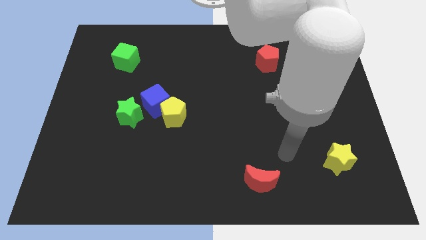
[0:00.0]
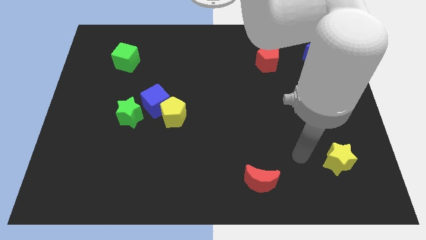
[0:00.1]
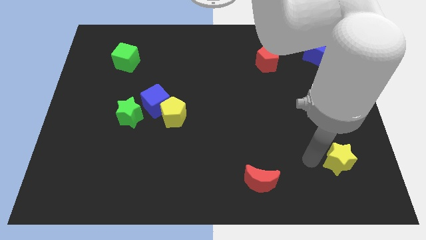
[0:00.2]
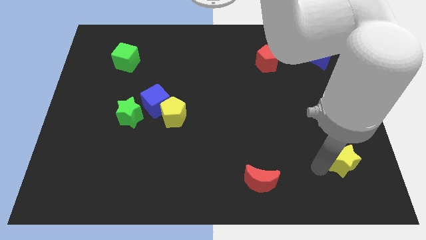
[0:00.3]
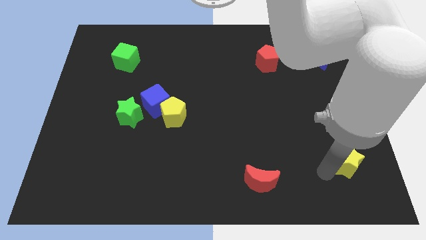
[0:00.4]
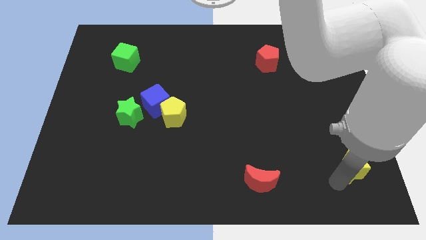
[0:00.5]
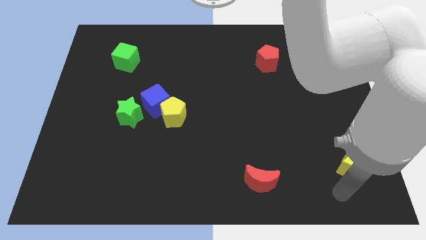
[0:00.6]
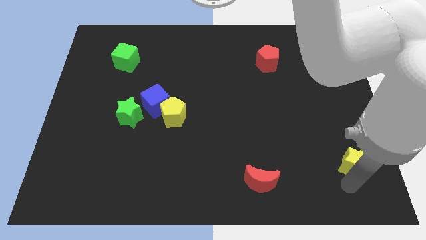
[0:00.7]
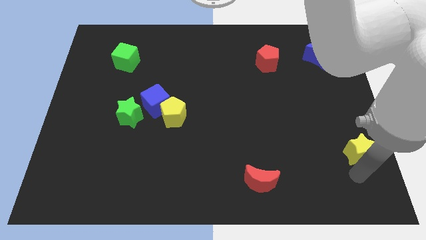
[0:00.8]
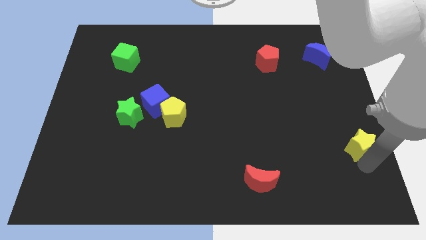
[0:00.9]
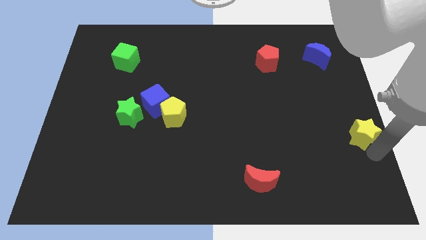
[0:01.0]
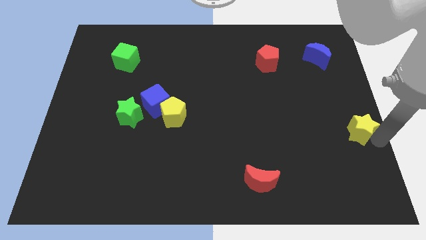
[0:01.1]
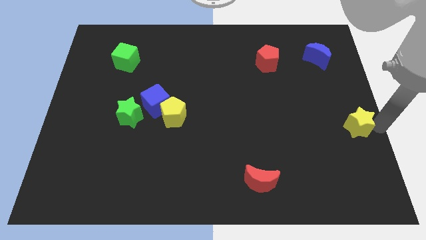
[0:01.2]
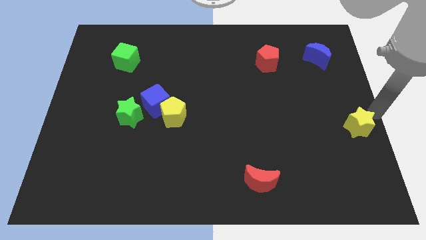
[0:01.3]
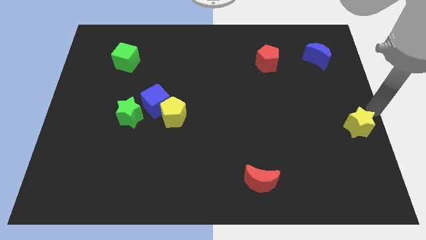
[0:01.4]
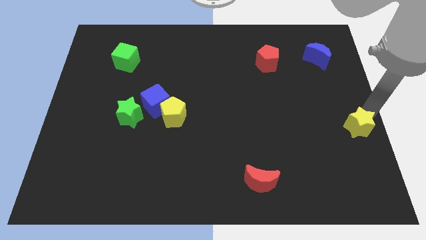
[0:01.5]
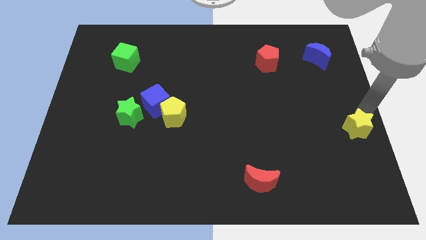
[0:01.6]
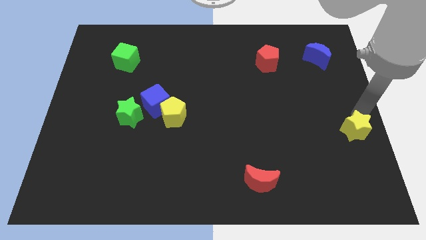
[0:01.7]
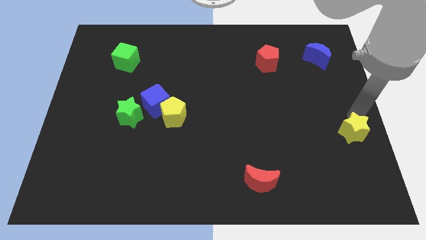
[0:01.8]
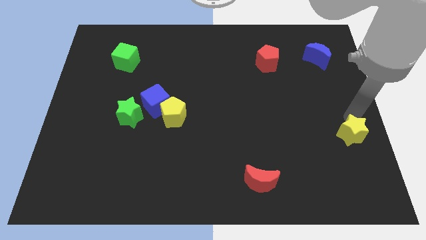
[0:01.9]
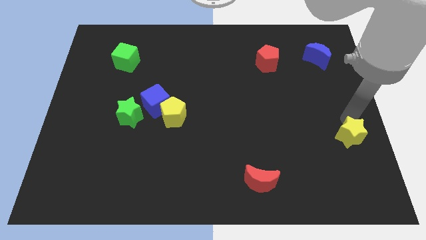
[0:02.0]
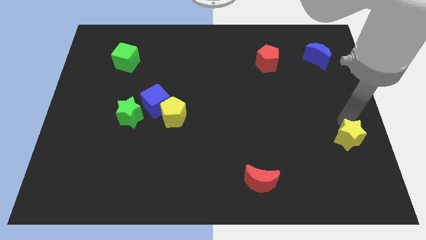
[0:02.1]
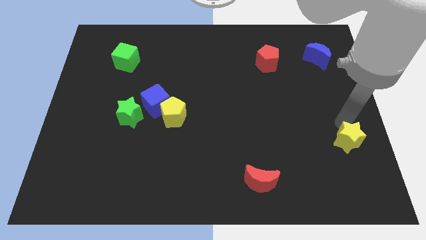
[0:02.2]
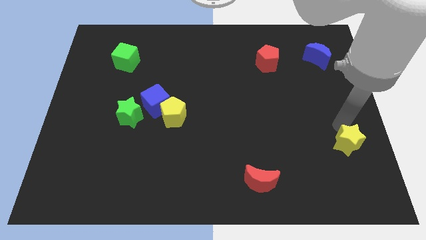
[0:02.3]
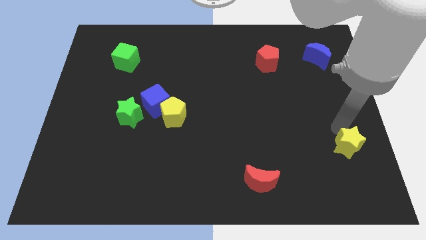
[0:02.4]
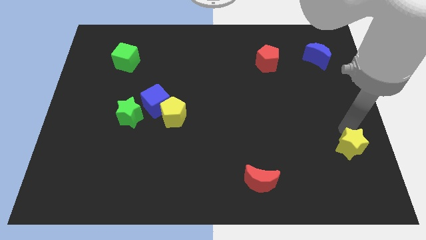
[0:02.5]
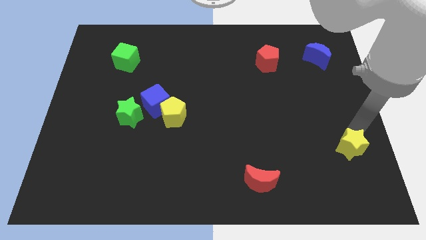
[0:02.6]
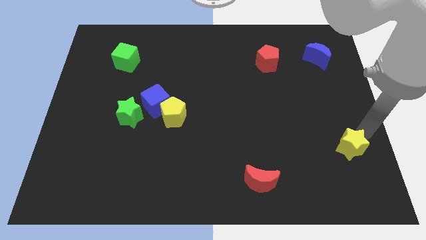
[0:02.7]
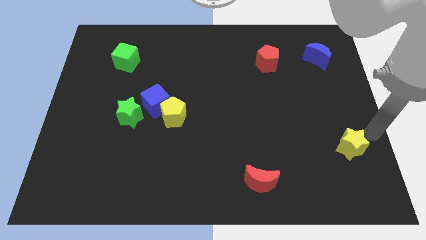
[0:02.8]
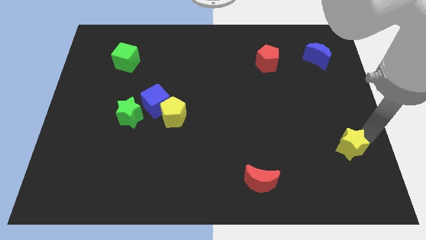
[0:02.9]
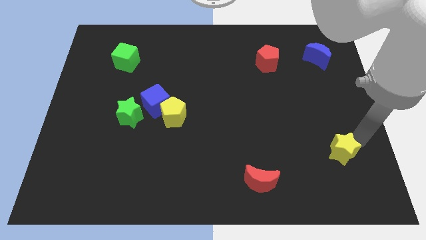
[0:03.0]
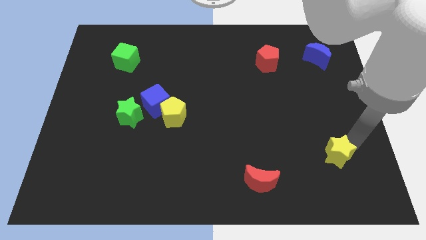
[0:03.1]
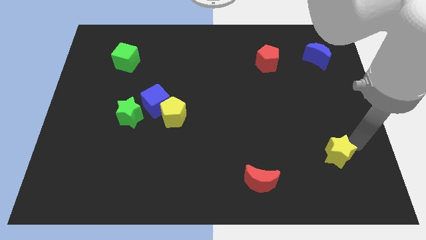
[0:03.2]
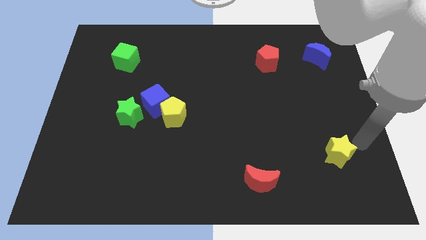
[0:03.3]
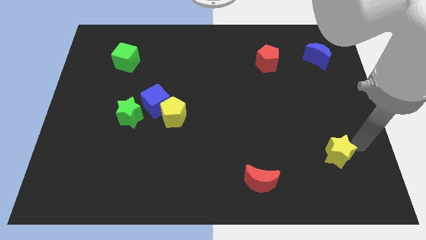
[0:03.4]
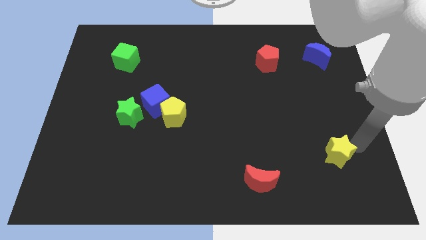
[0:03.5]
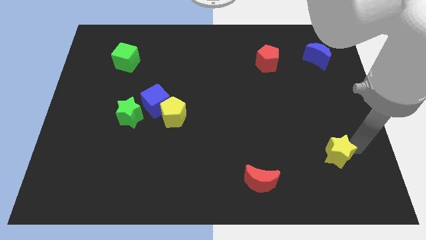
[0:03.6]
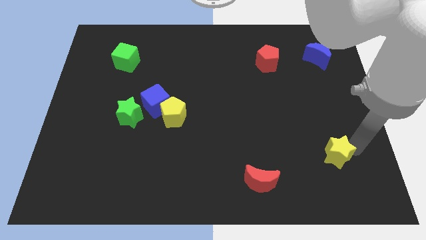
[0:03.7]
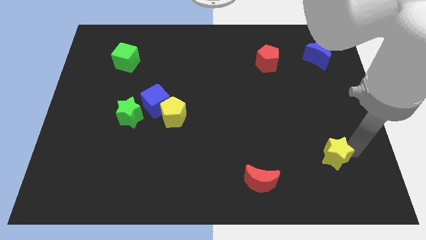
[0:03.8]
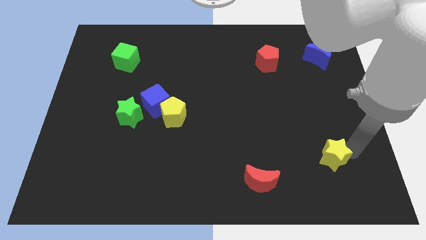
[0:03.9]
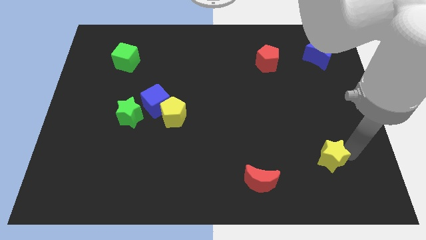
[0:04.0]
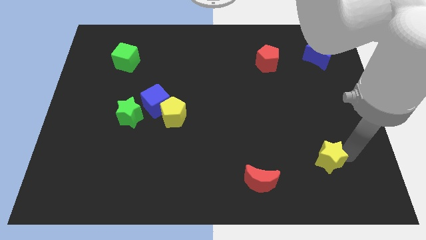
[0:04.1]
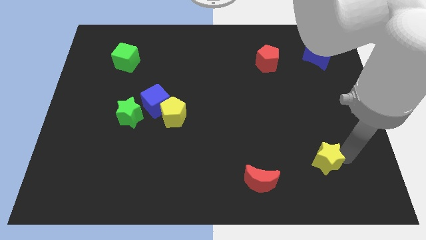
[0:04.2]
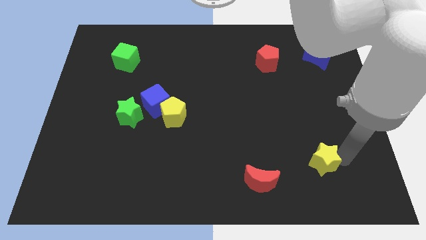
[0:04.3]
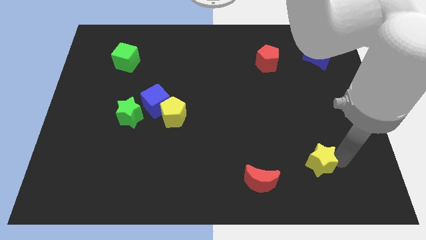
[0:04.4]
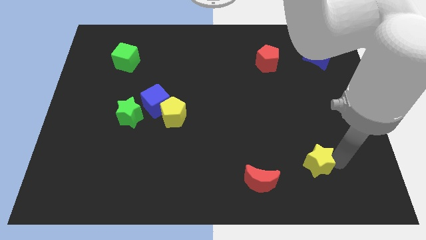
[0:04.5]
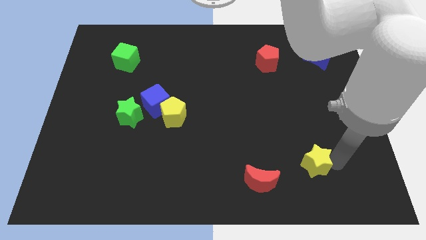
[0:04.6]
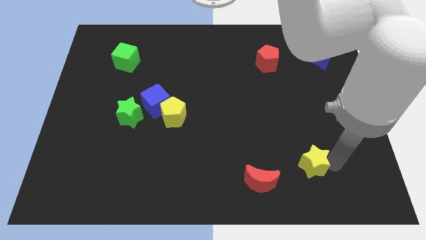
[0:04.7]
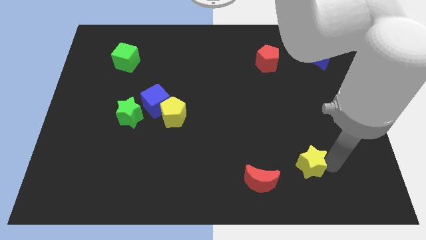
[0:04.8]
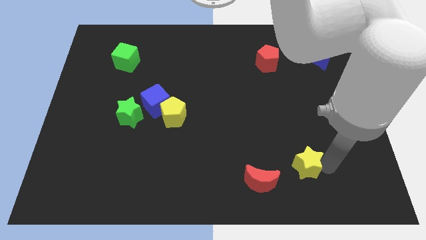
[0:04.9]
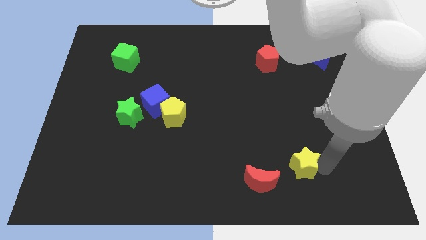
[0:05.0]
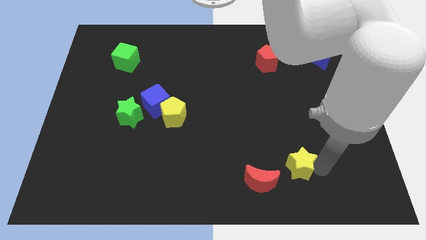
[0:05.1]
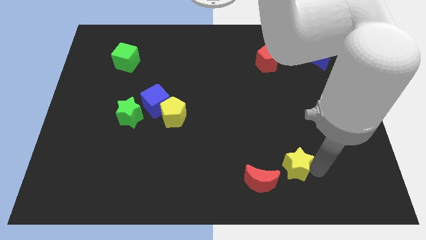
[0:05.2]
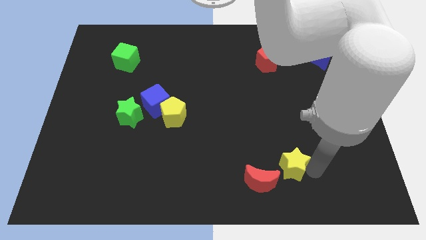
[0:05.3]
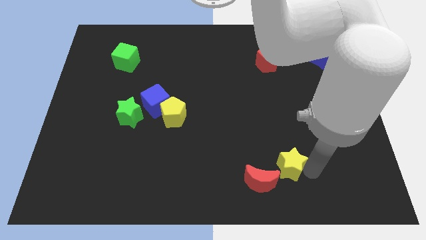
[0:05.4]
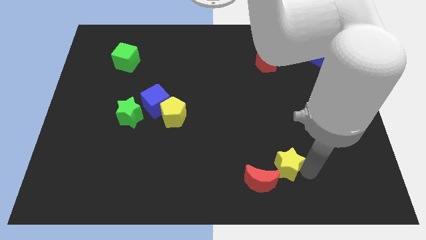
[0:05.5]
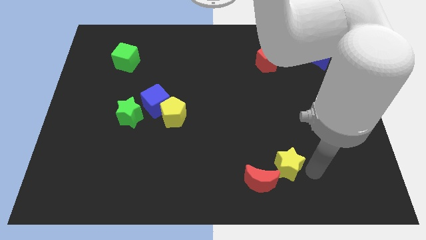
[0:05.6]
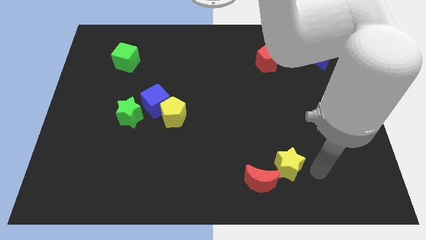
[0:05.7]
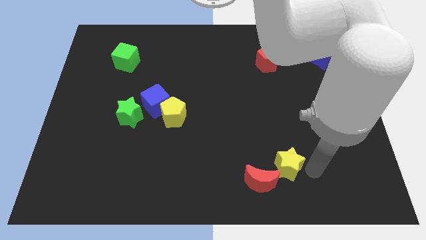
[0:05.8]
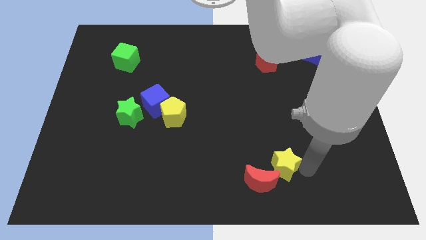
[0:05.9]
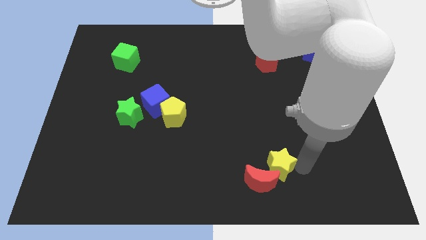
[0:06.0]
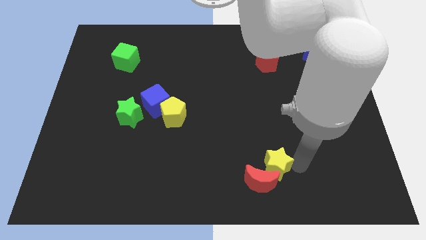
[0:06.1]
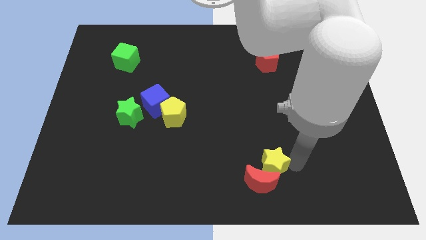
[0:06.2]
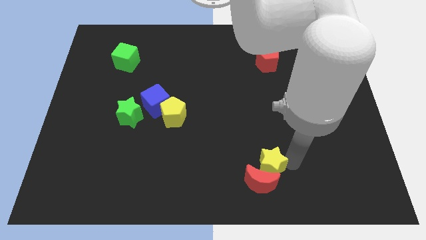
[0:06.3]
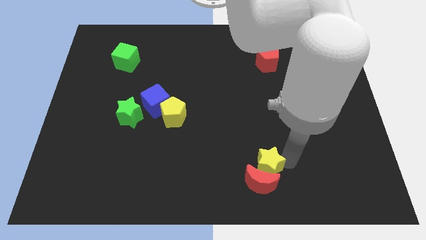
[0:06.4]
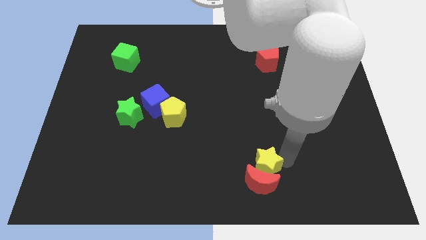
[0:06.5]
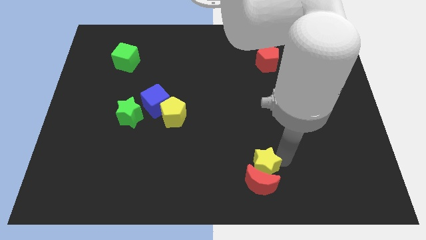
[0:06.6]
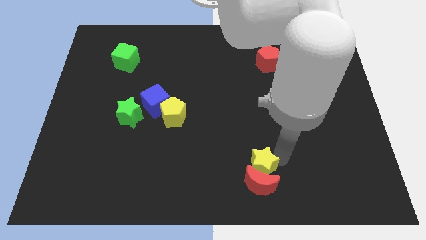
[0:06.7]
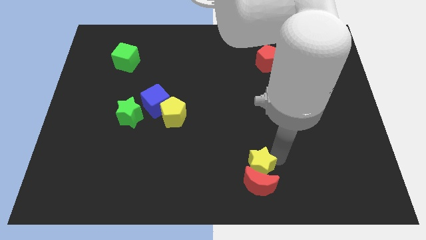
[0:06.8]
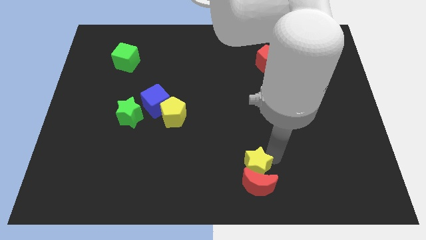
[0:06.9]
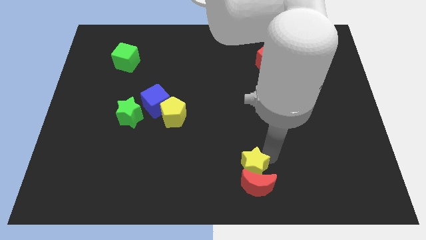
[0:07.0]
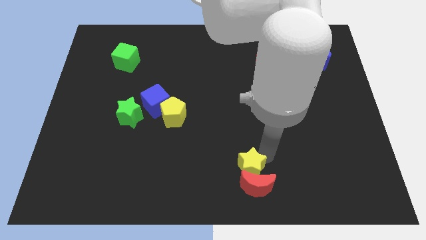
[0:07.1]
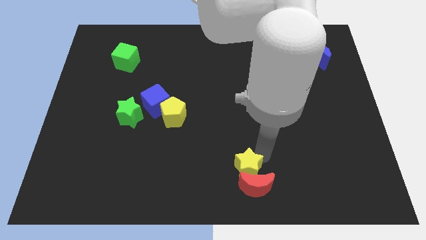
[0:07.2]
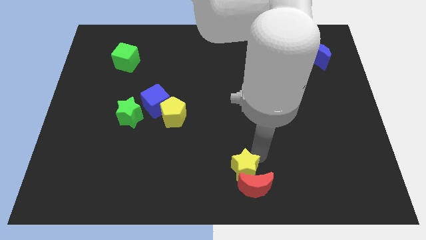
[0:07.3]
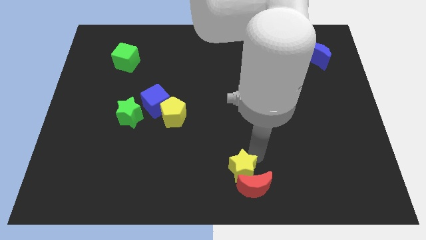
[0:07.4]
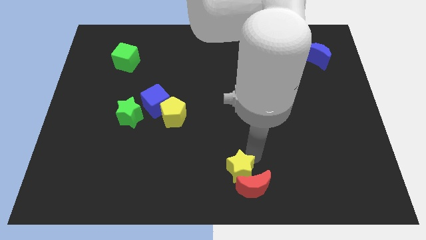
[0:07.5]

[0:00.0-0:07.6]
slide the yellow star just left of the red moon
